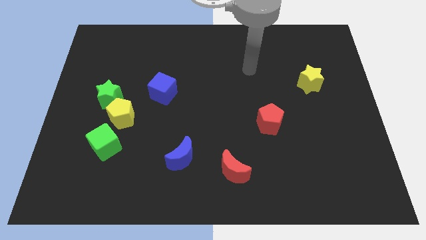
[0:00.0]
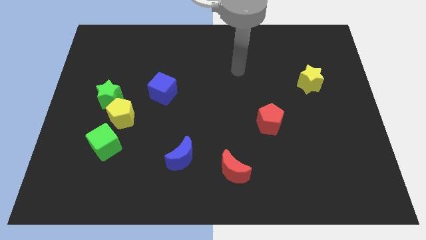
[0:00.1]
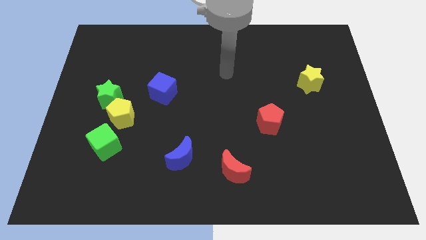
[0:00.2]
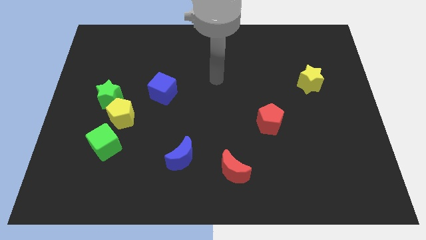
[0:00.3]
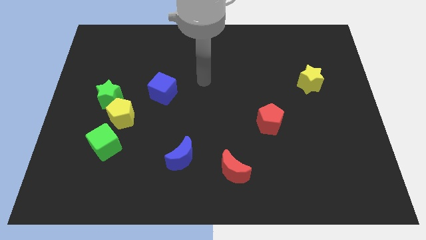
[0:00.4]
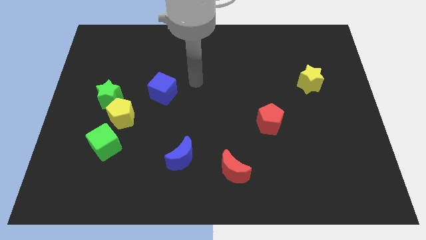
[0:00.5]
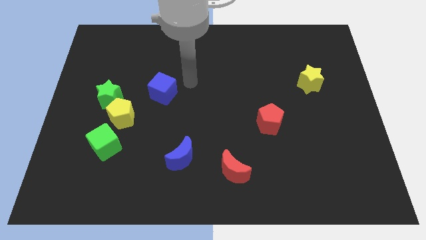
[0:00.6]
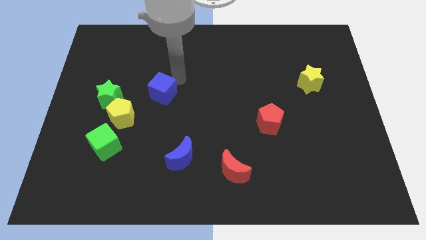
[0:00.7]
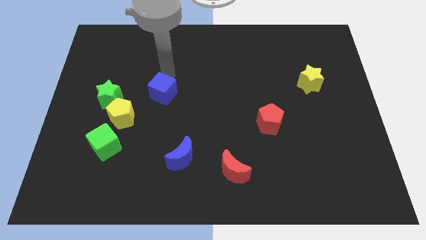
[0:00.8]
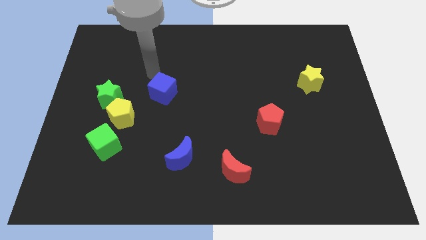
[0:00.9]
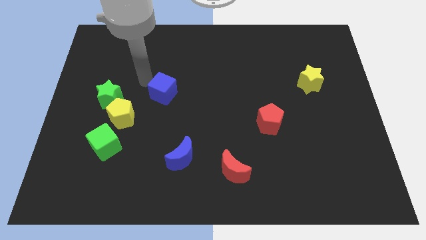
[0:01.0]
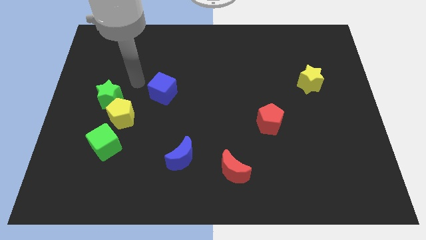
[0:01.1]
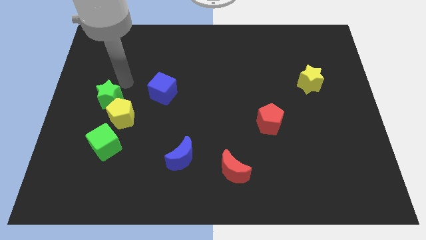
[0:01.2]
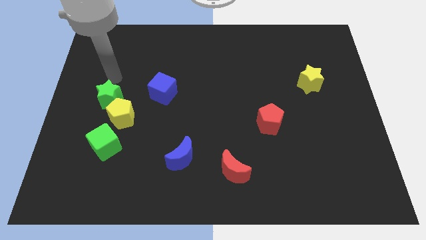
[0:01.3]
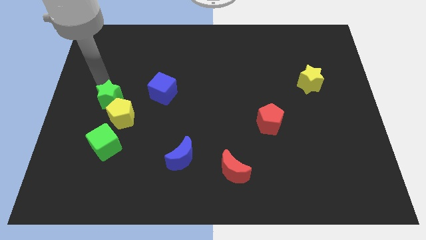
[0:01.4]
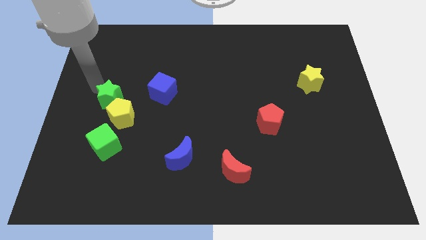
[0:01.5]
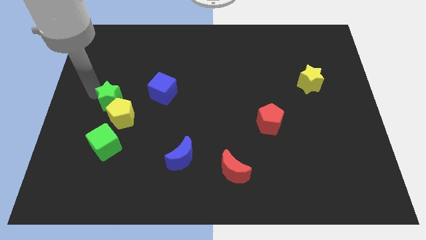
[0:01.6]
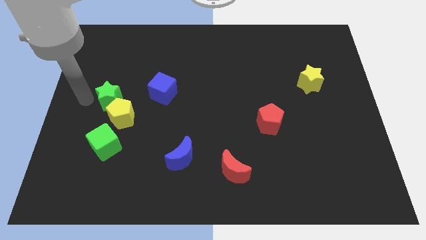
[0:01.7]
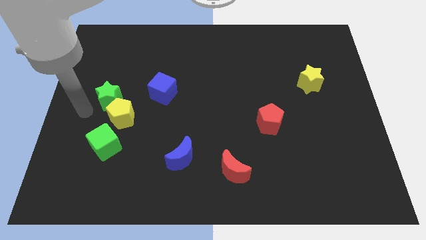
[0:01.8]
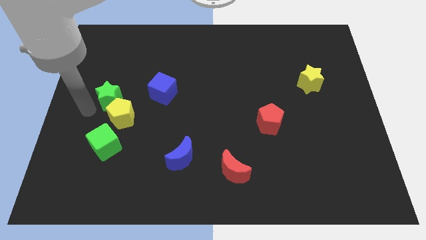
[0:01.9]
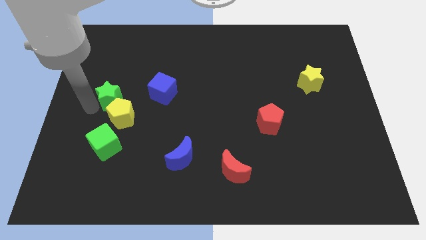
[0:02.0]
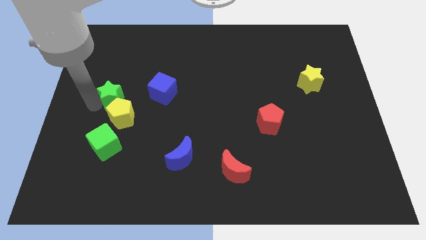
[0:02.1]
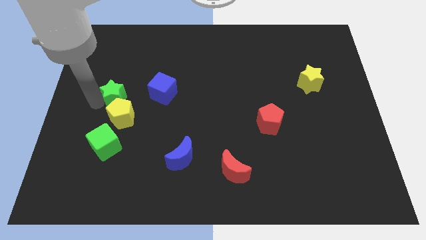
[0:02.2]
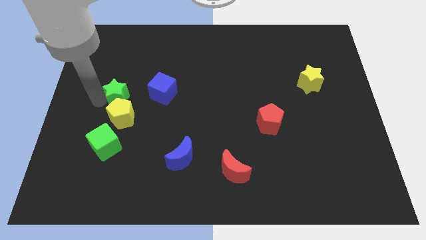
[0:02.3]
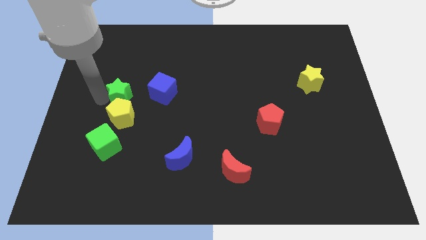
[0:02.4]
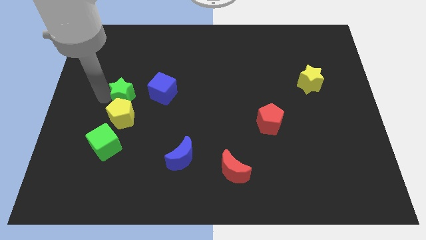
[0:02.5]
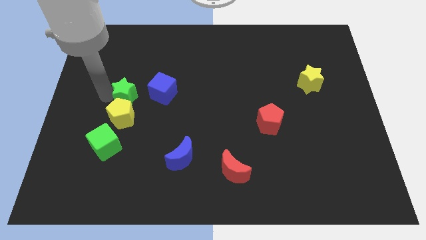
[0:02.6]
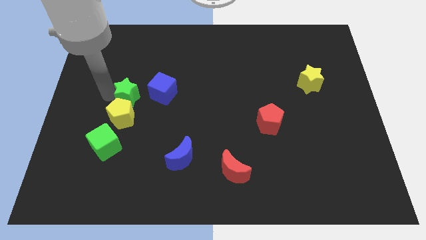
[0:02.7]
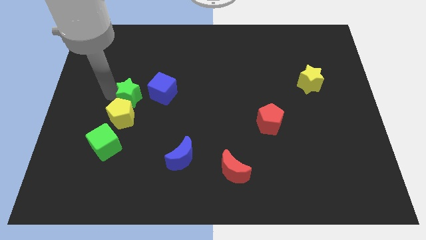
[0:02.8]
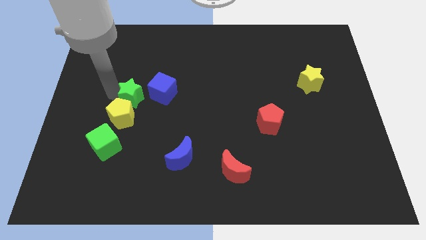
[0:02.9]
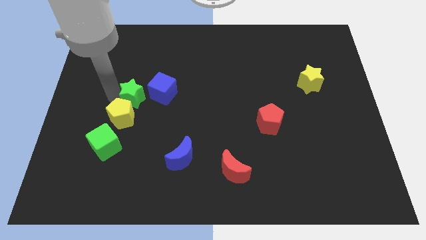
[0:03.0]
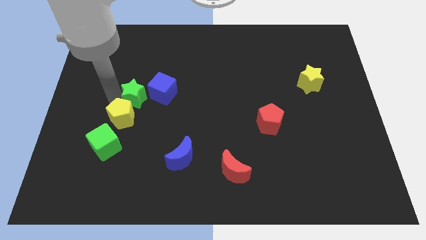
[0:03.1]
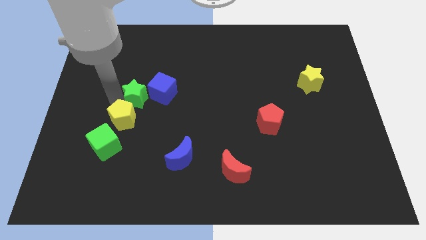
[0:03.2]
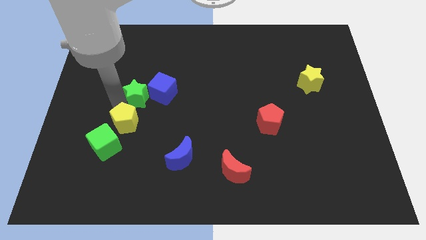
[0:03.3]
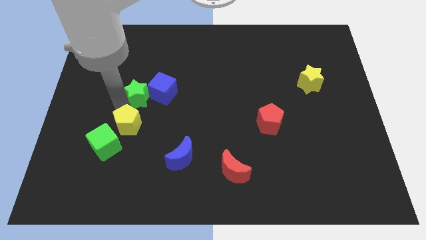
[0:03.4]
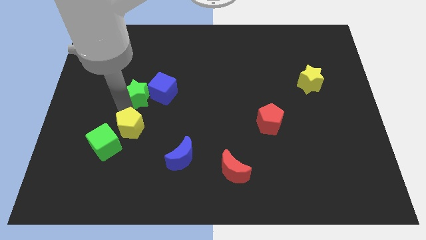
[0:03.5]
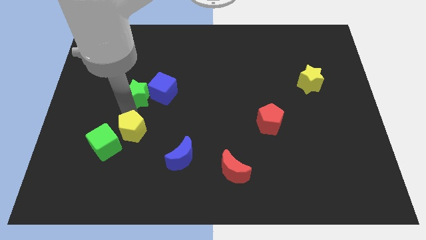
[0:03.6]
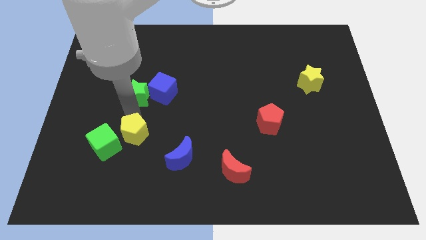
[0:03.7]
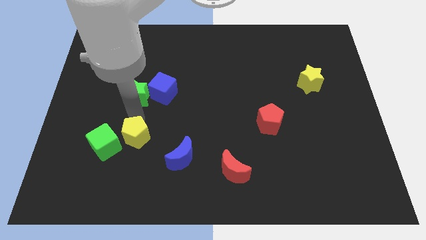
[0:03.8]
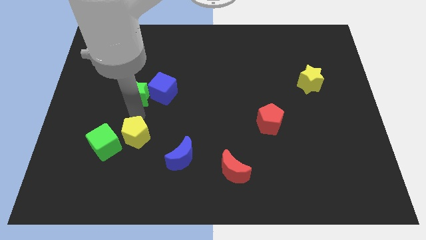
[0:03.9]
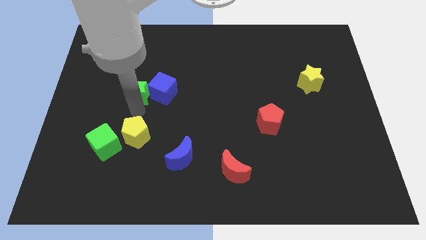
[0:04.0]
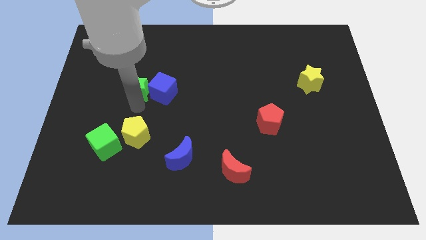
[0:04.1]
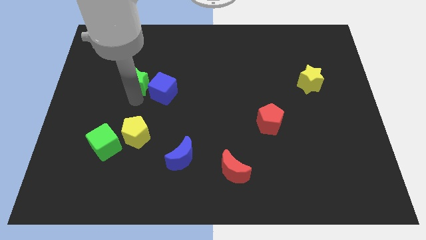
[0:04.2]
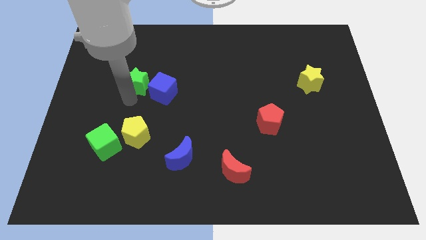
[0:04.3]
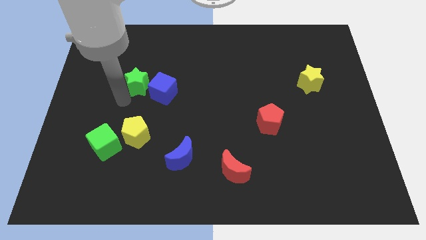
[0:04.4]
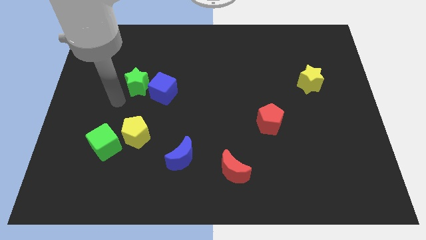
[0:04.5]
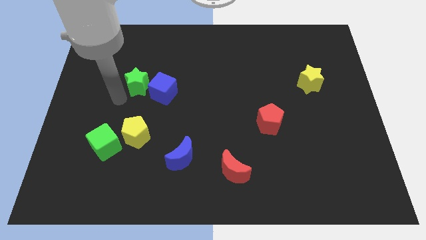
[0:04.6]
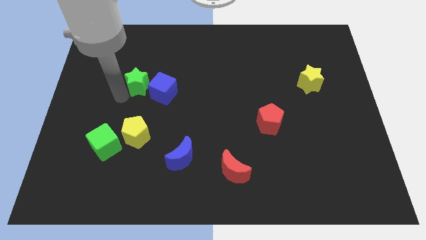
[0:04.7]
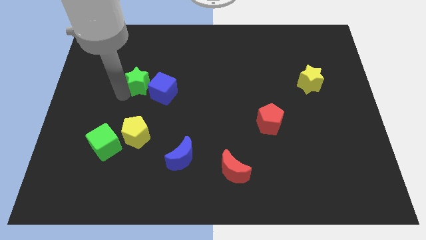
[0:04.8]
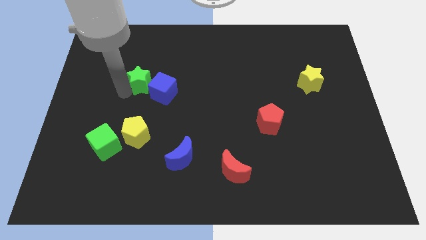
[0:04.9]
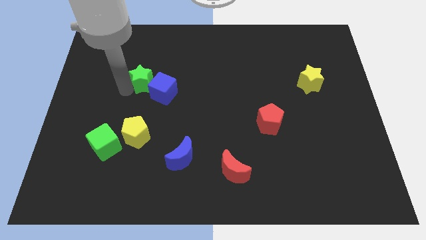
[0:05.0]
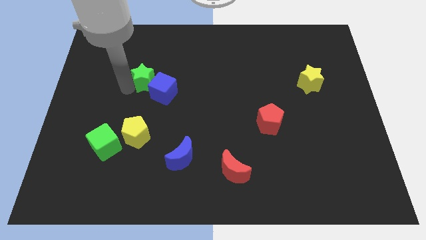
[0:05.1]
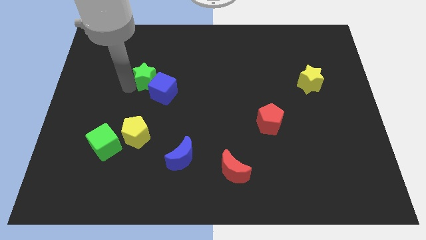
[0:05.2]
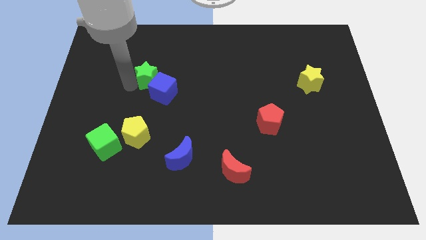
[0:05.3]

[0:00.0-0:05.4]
move the green star to the top of the blue cube
